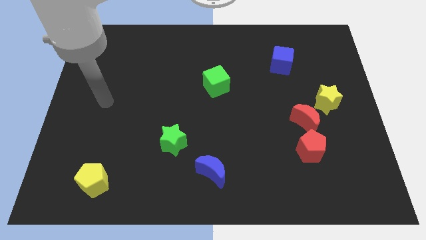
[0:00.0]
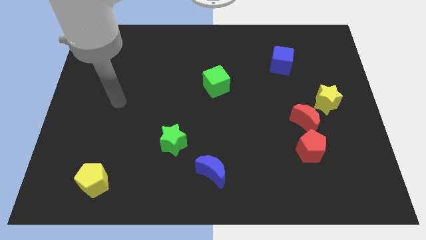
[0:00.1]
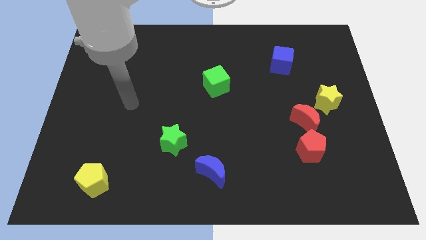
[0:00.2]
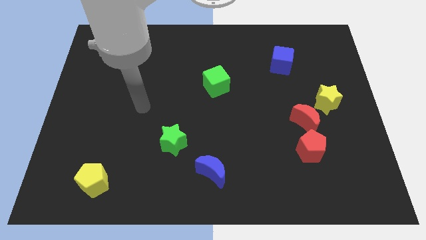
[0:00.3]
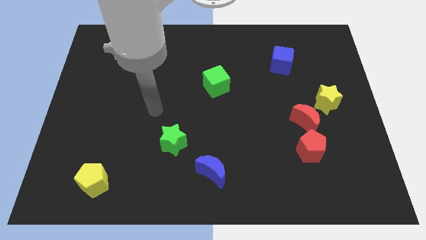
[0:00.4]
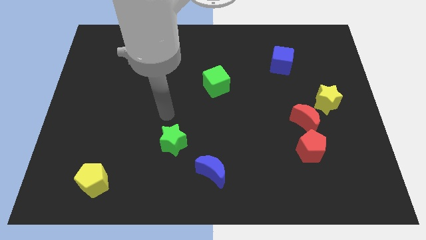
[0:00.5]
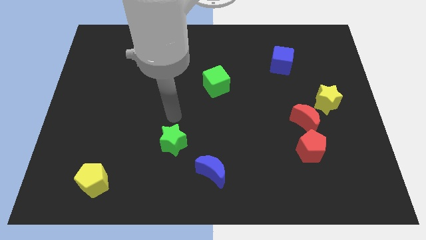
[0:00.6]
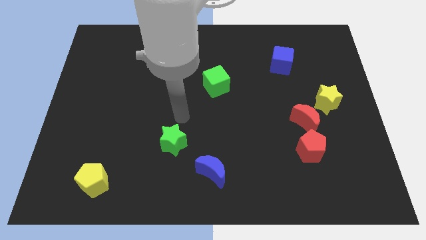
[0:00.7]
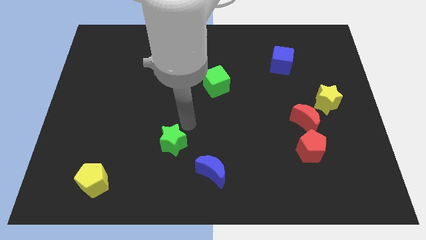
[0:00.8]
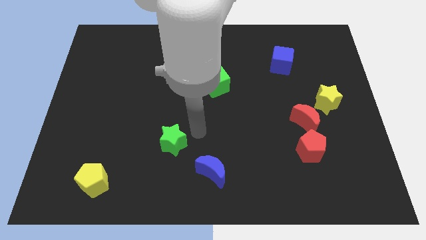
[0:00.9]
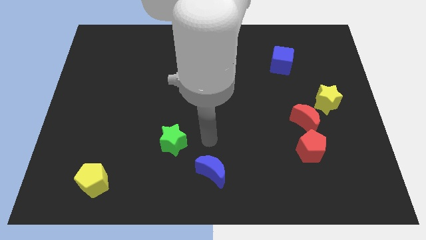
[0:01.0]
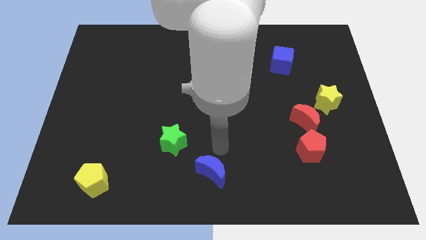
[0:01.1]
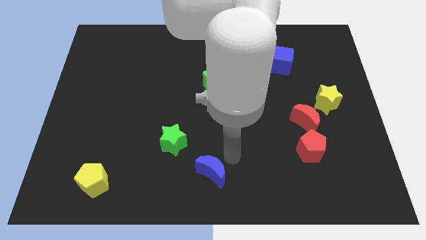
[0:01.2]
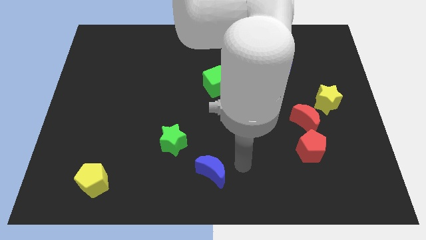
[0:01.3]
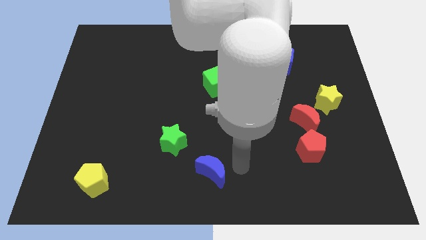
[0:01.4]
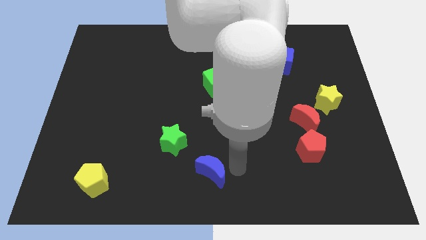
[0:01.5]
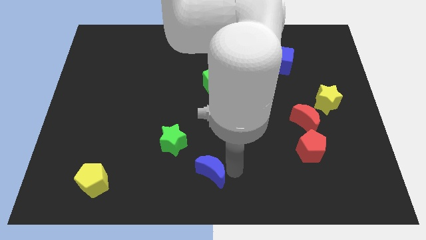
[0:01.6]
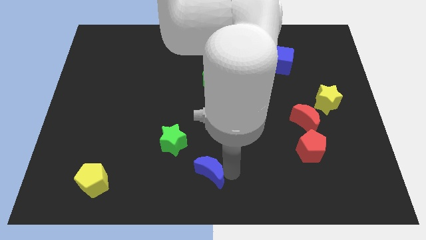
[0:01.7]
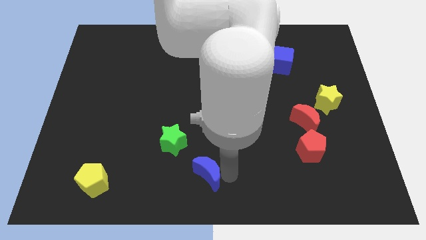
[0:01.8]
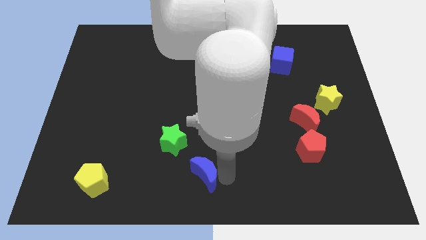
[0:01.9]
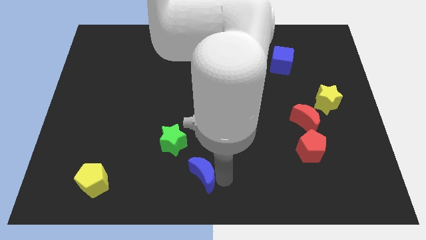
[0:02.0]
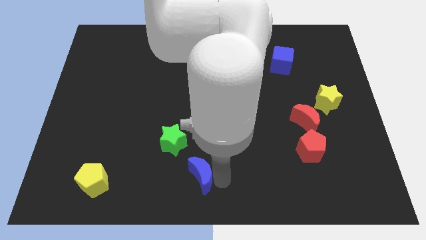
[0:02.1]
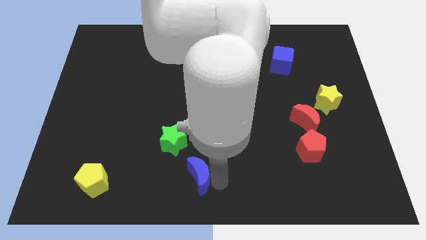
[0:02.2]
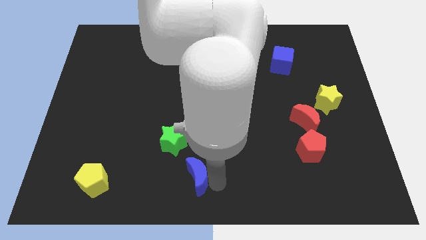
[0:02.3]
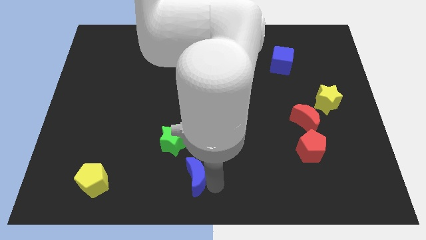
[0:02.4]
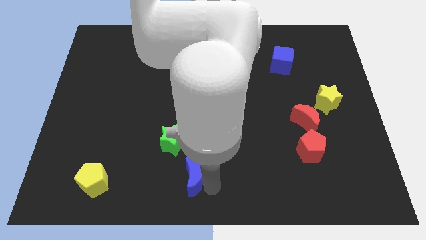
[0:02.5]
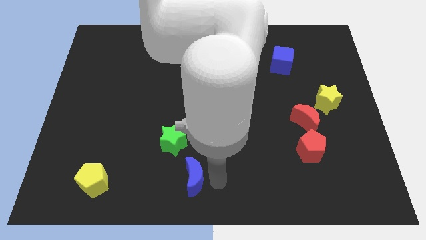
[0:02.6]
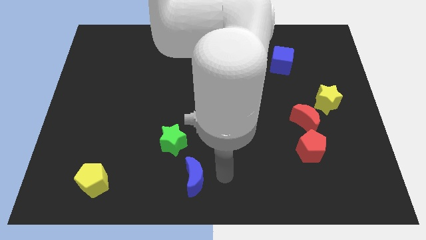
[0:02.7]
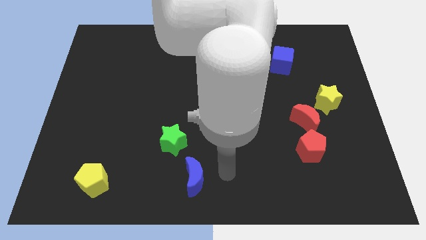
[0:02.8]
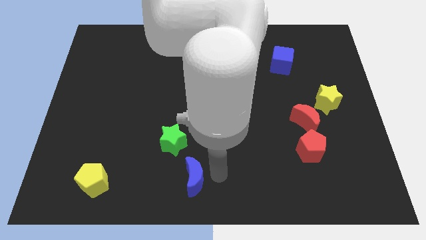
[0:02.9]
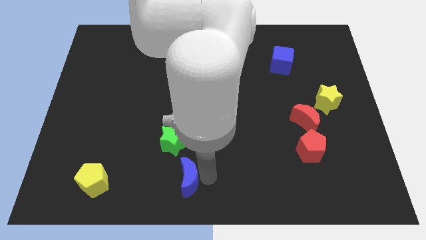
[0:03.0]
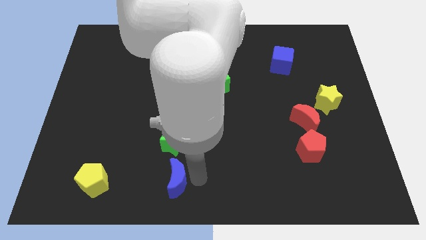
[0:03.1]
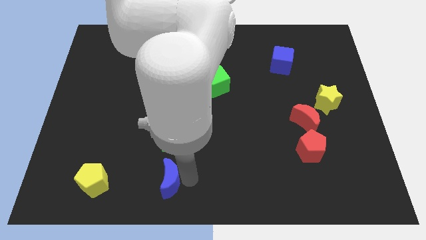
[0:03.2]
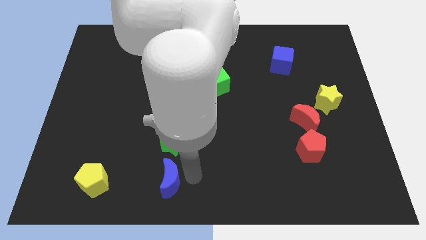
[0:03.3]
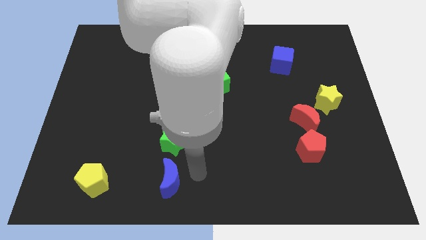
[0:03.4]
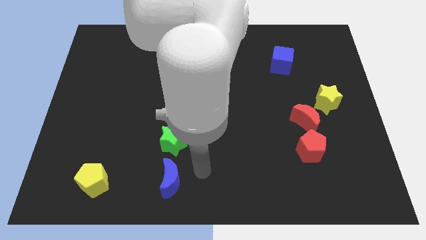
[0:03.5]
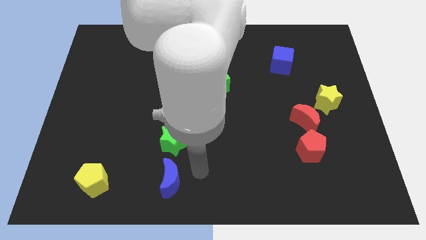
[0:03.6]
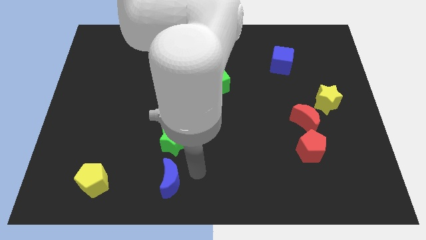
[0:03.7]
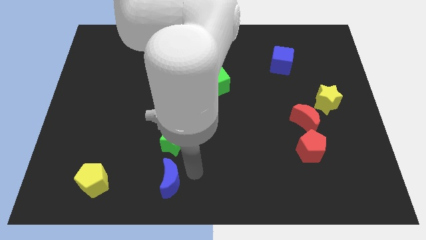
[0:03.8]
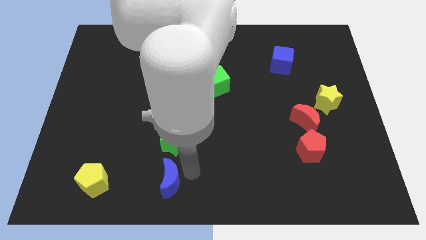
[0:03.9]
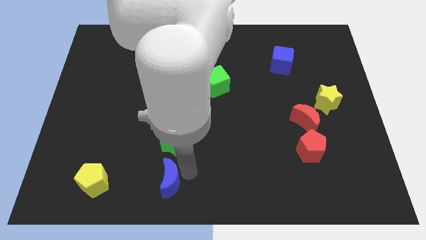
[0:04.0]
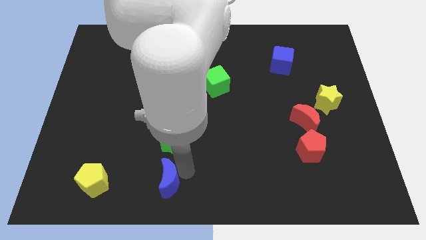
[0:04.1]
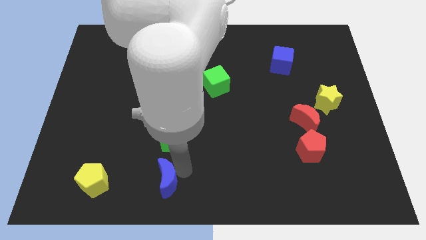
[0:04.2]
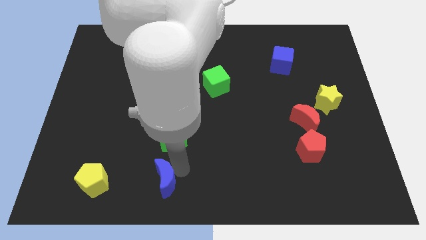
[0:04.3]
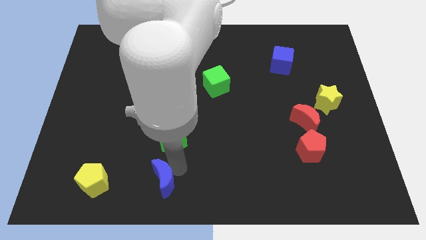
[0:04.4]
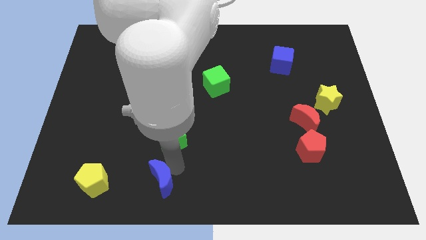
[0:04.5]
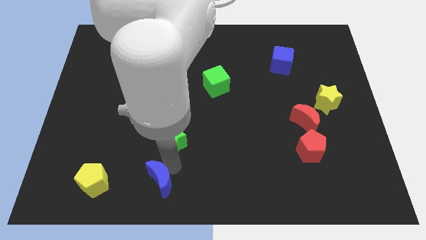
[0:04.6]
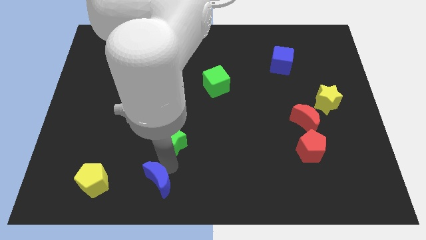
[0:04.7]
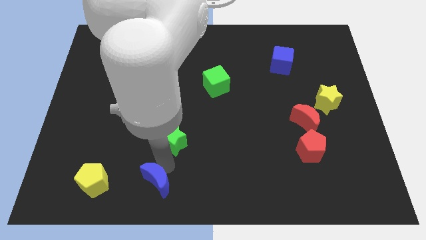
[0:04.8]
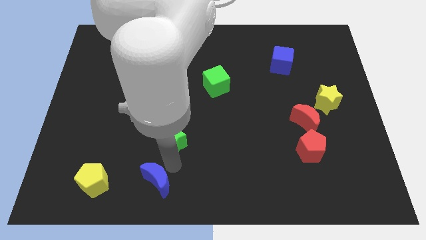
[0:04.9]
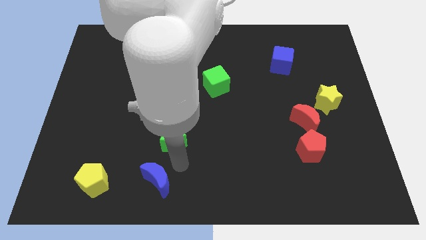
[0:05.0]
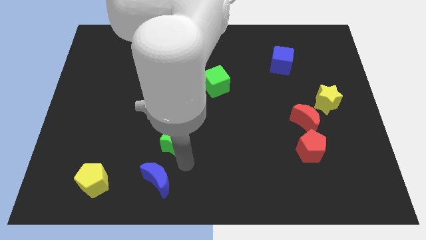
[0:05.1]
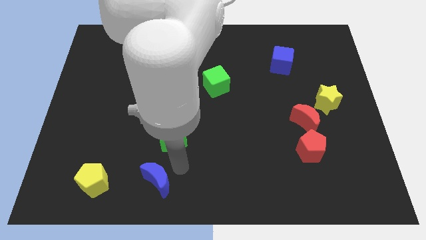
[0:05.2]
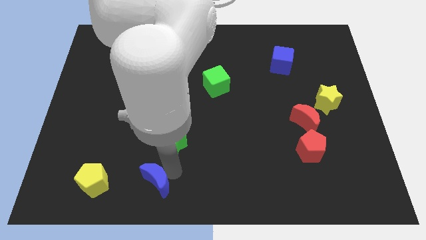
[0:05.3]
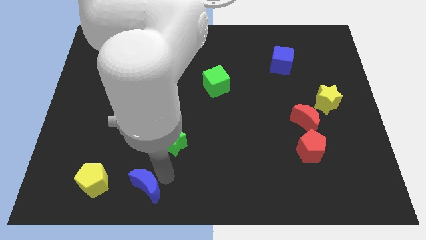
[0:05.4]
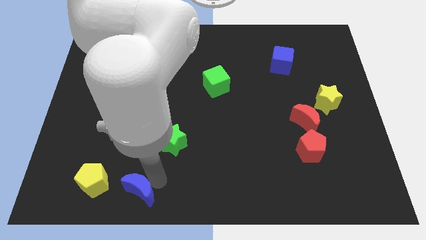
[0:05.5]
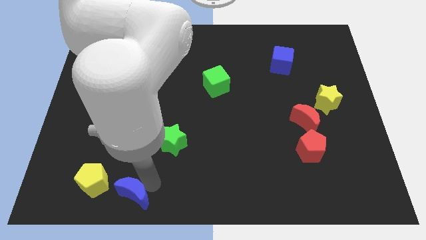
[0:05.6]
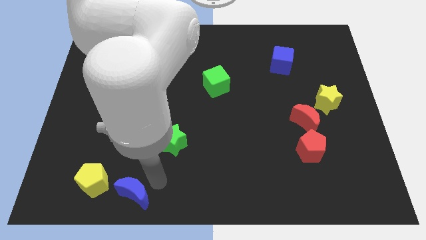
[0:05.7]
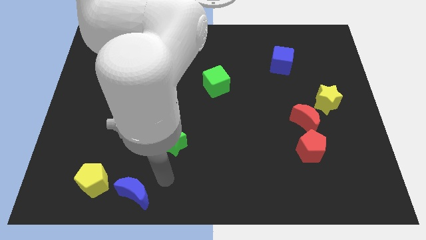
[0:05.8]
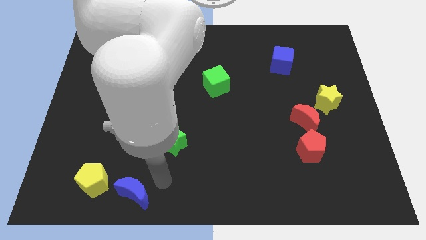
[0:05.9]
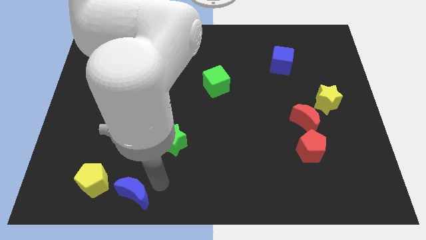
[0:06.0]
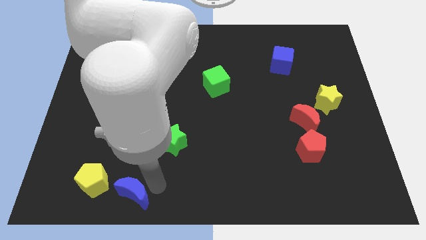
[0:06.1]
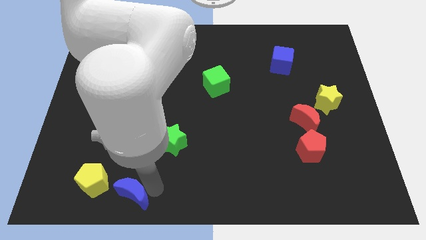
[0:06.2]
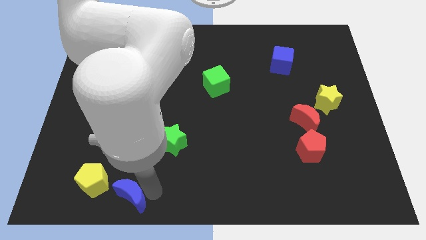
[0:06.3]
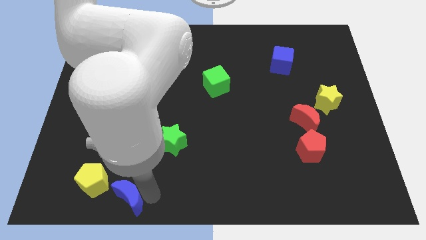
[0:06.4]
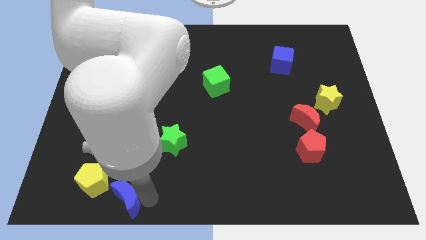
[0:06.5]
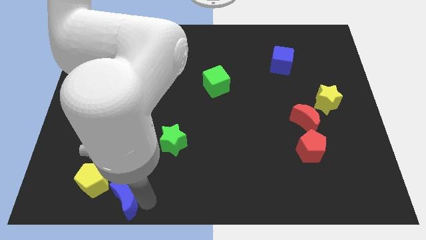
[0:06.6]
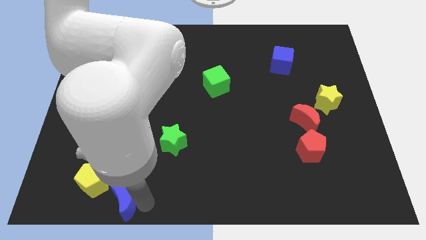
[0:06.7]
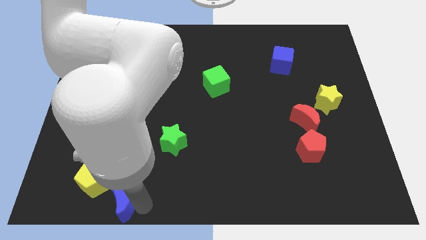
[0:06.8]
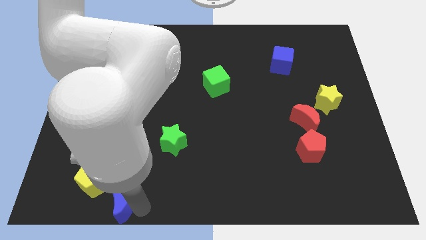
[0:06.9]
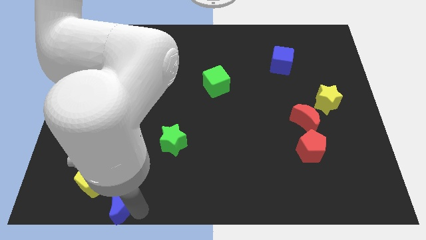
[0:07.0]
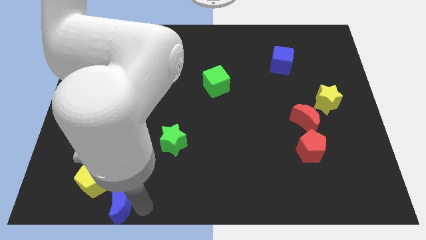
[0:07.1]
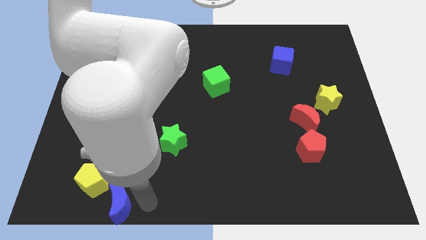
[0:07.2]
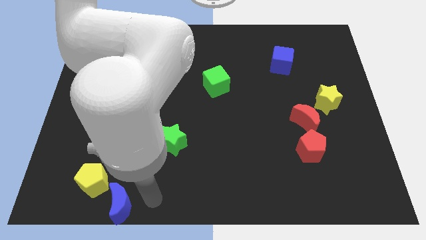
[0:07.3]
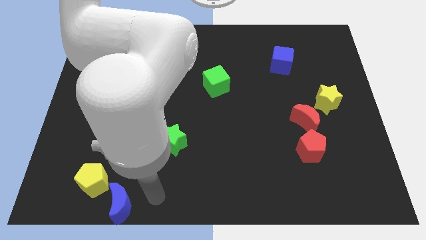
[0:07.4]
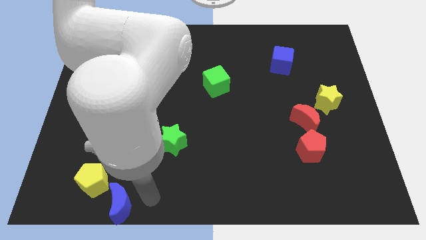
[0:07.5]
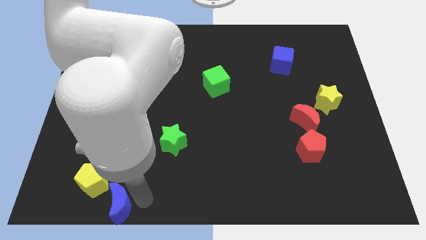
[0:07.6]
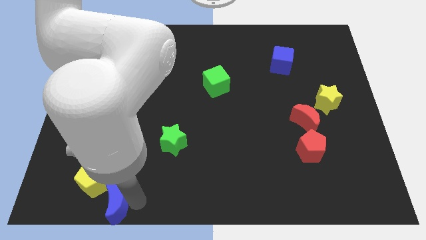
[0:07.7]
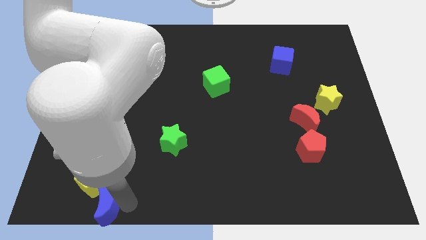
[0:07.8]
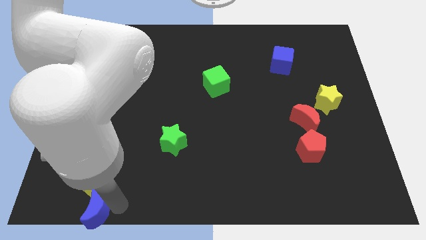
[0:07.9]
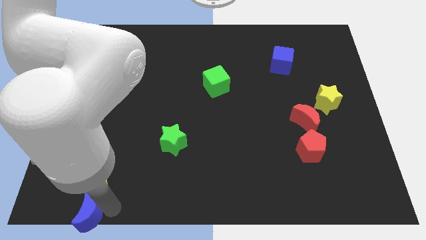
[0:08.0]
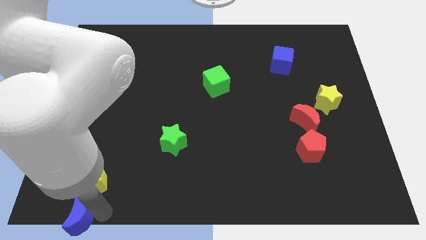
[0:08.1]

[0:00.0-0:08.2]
push the blue moon to the lower left corner
